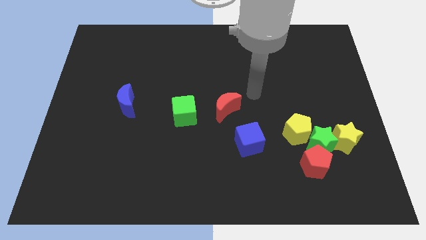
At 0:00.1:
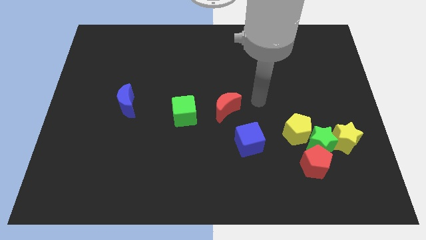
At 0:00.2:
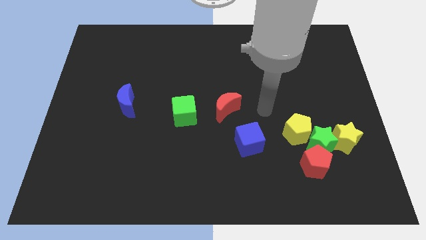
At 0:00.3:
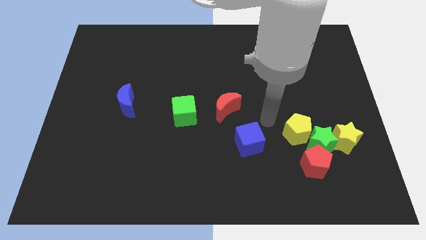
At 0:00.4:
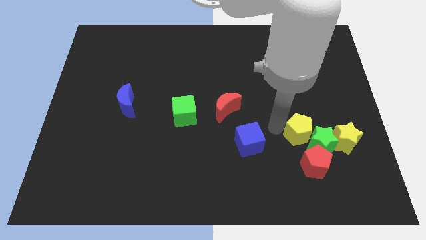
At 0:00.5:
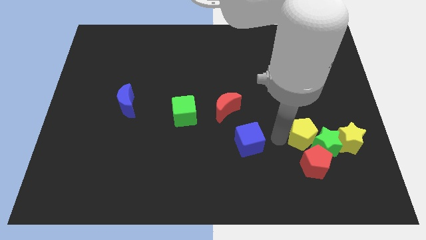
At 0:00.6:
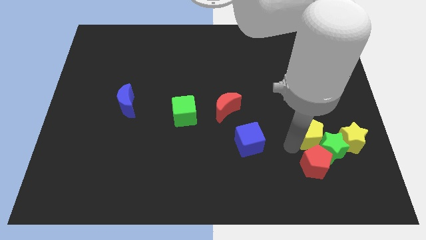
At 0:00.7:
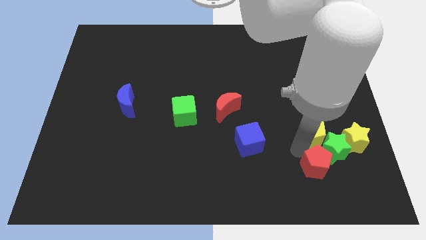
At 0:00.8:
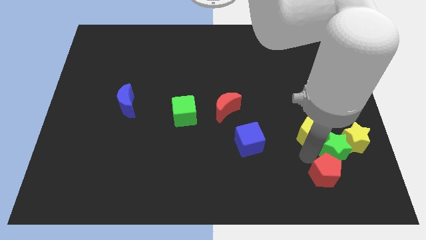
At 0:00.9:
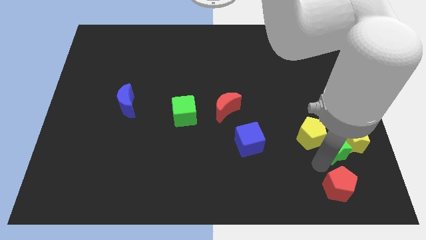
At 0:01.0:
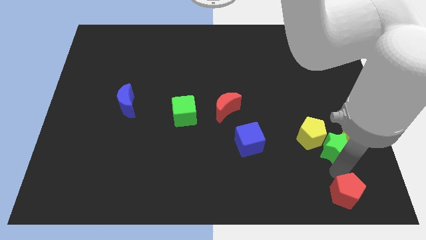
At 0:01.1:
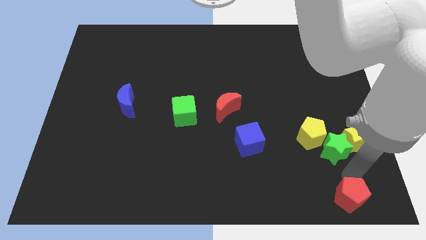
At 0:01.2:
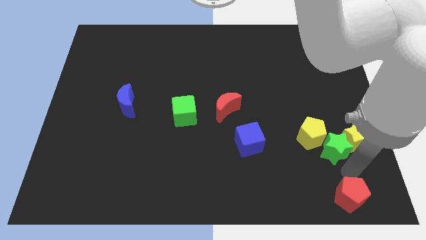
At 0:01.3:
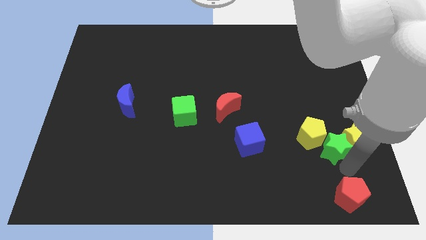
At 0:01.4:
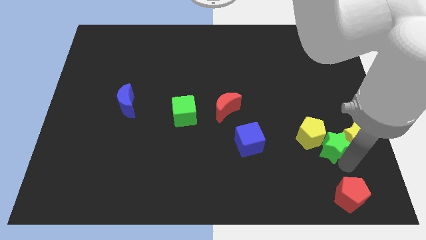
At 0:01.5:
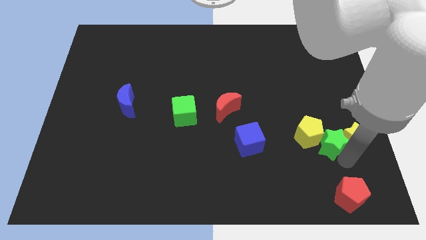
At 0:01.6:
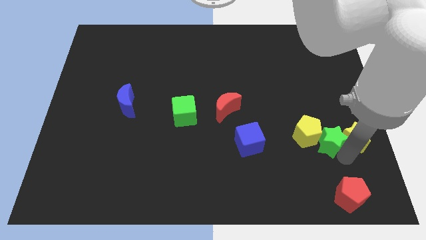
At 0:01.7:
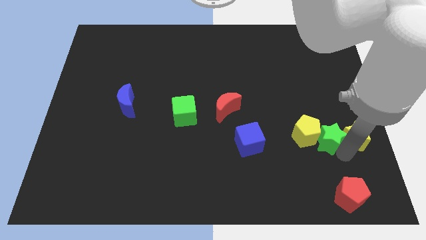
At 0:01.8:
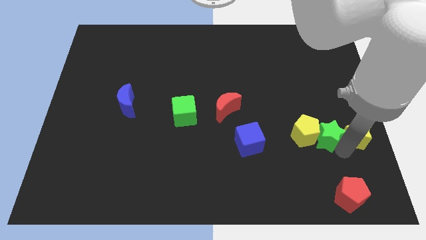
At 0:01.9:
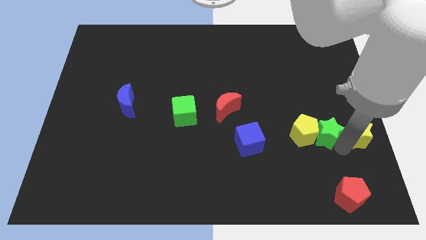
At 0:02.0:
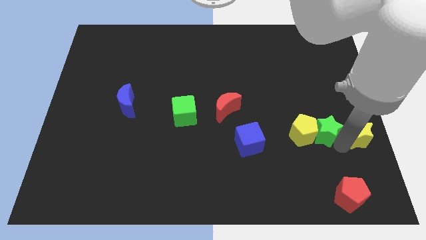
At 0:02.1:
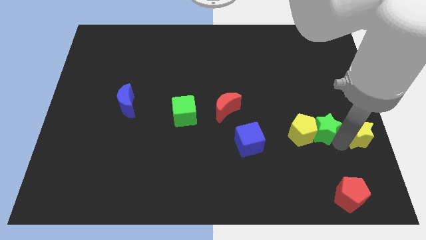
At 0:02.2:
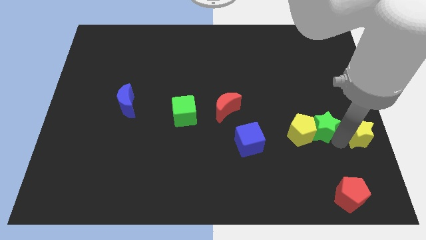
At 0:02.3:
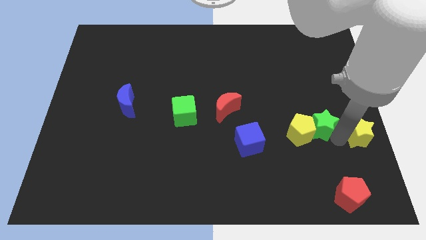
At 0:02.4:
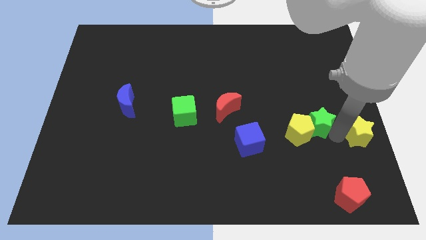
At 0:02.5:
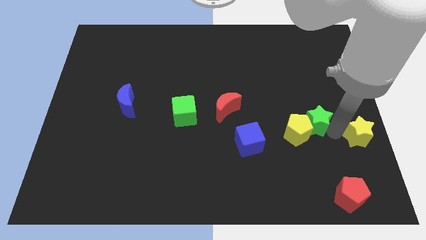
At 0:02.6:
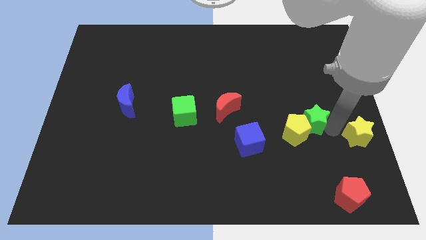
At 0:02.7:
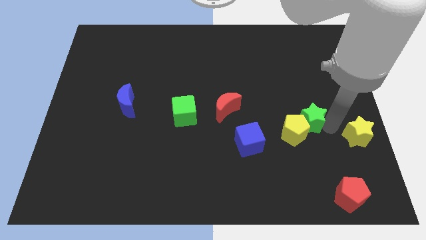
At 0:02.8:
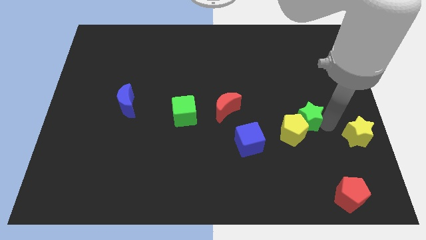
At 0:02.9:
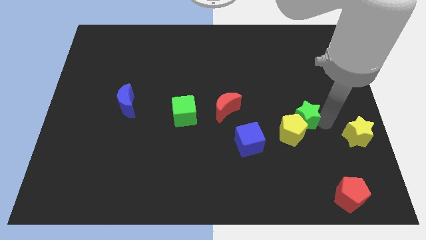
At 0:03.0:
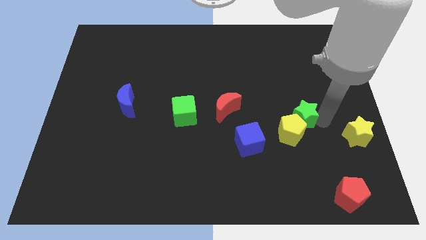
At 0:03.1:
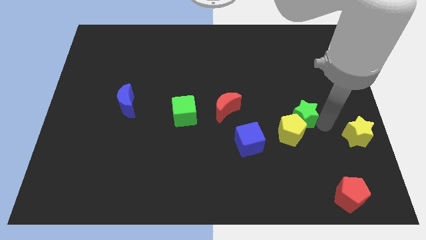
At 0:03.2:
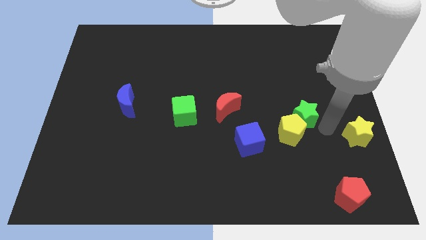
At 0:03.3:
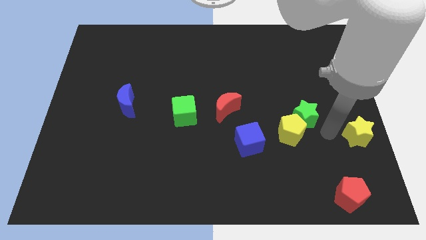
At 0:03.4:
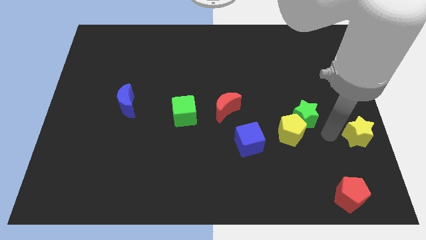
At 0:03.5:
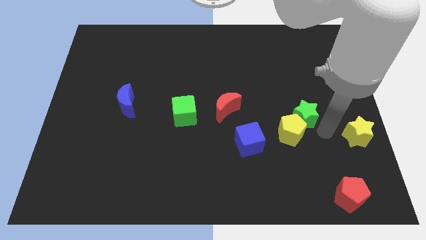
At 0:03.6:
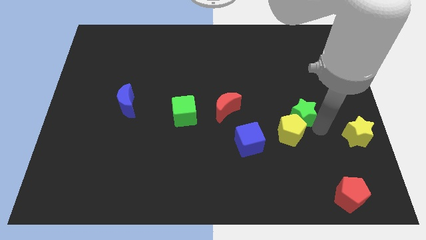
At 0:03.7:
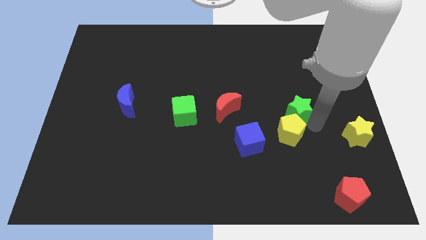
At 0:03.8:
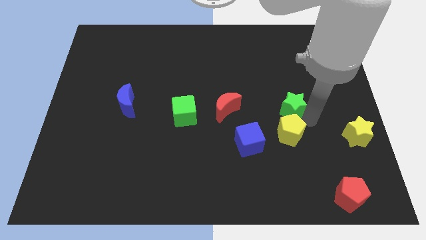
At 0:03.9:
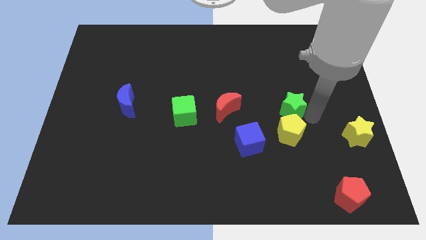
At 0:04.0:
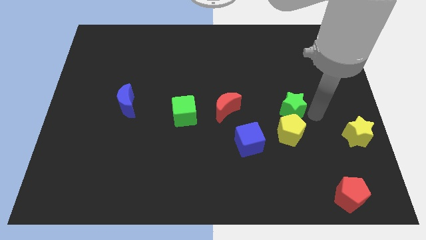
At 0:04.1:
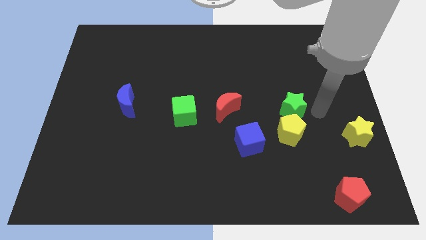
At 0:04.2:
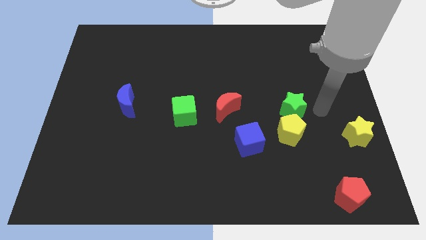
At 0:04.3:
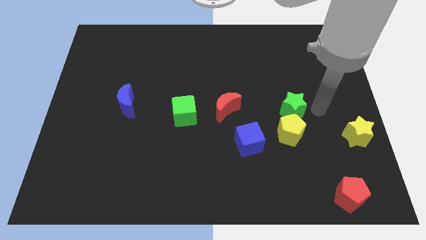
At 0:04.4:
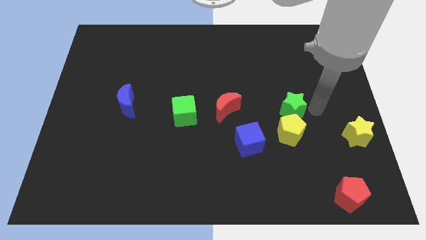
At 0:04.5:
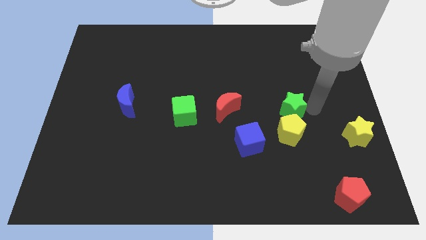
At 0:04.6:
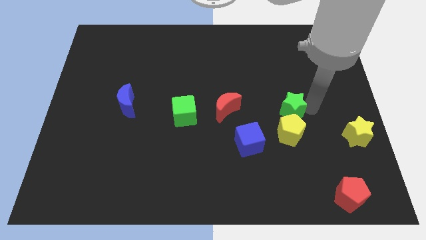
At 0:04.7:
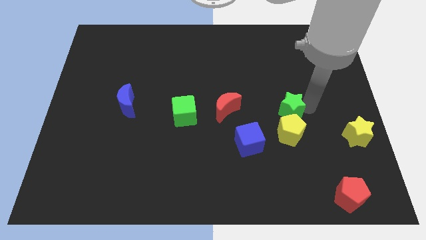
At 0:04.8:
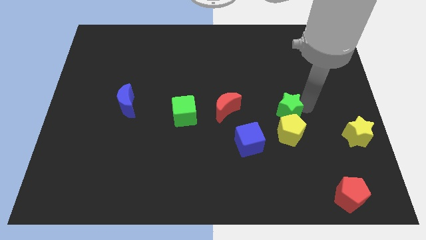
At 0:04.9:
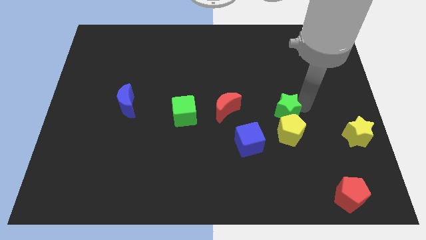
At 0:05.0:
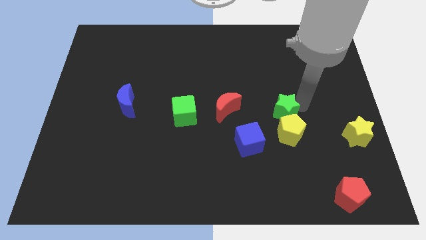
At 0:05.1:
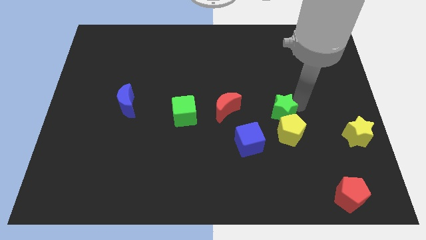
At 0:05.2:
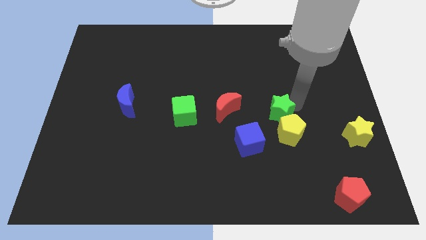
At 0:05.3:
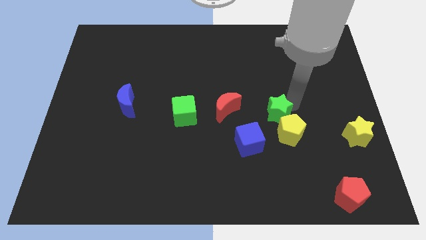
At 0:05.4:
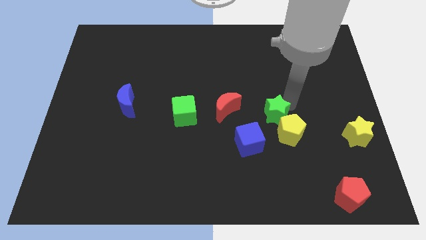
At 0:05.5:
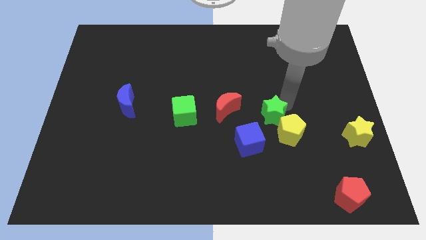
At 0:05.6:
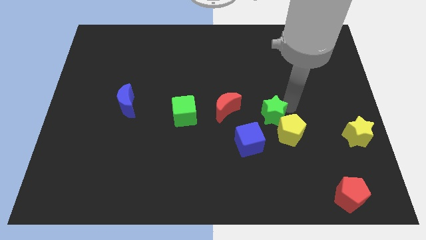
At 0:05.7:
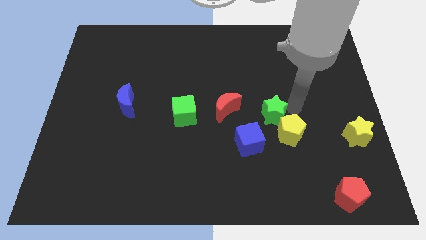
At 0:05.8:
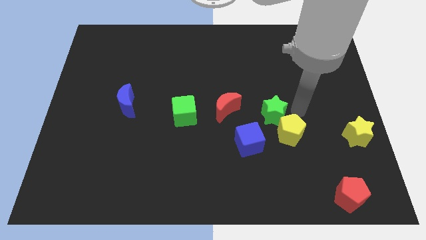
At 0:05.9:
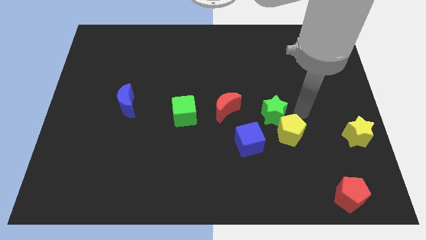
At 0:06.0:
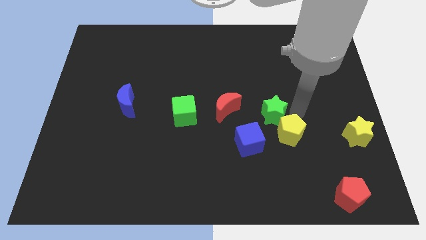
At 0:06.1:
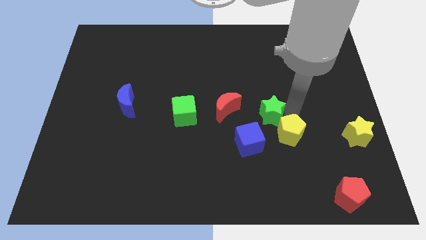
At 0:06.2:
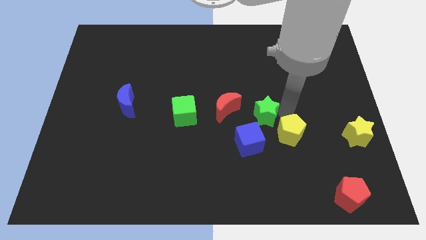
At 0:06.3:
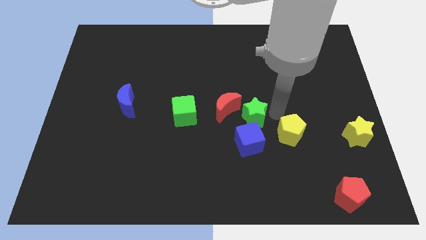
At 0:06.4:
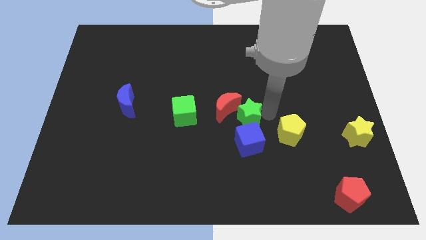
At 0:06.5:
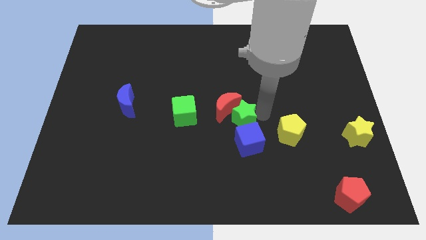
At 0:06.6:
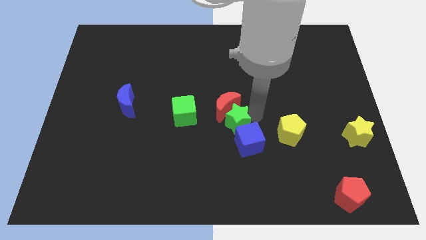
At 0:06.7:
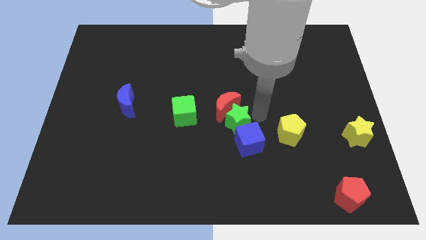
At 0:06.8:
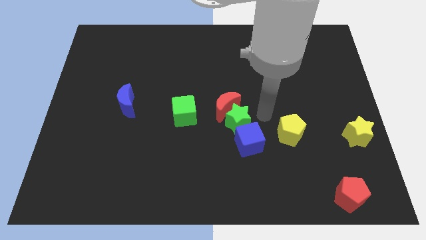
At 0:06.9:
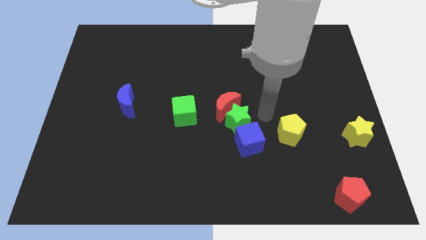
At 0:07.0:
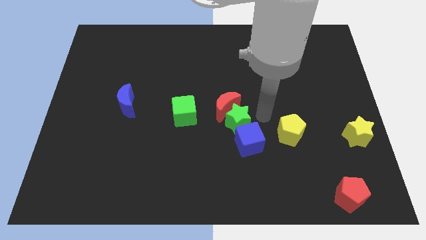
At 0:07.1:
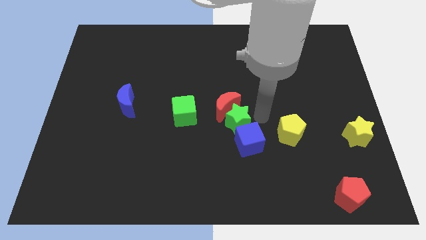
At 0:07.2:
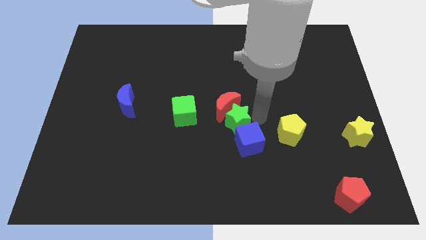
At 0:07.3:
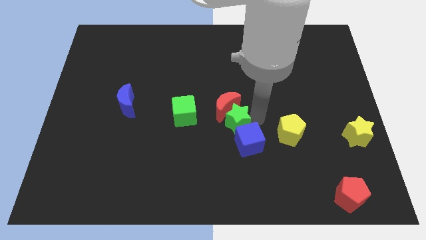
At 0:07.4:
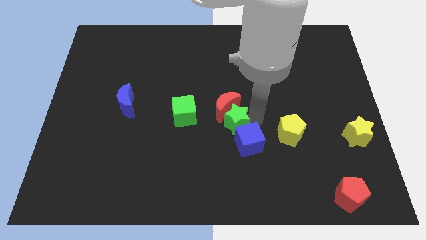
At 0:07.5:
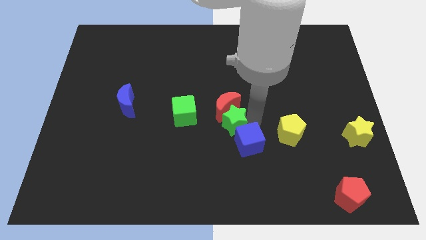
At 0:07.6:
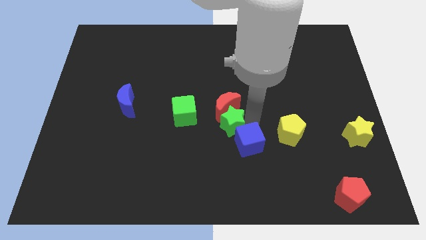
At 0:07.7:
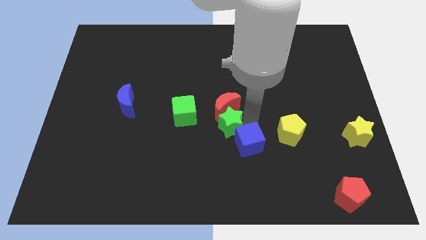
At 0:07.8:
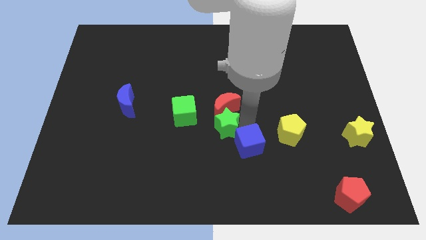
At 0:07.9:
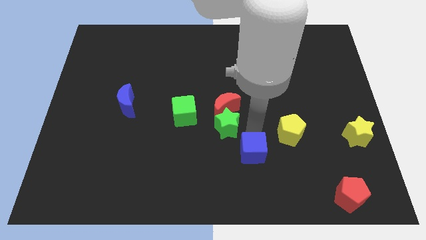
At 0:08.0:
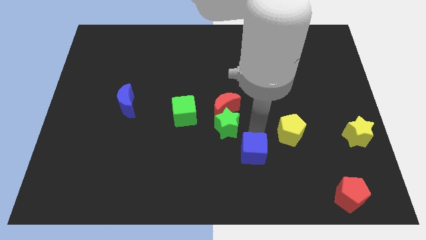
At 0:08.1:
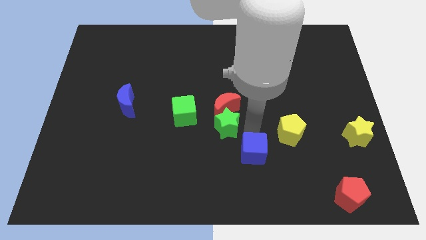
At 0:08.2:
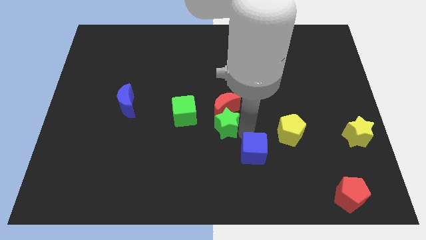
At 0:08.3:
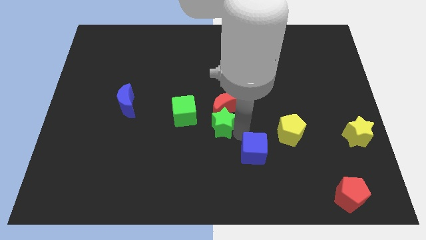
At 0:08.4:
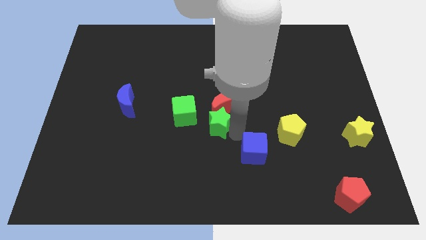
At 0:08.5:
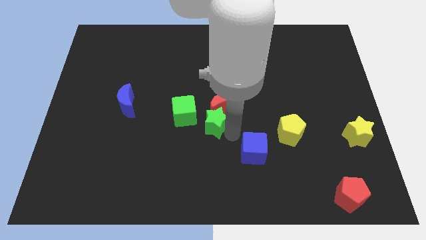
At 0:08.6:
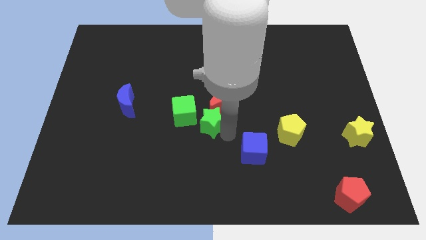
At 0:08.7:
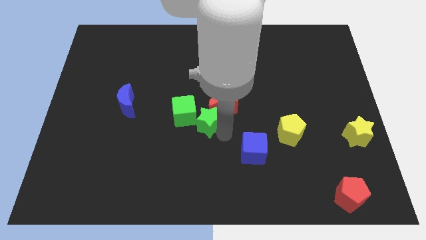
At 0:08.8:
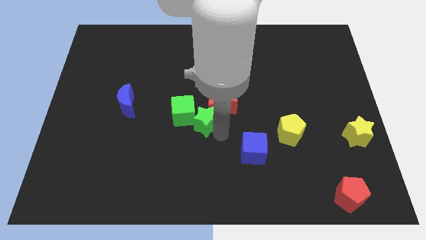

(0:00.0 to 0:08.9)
put the green star next to the green cube
